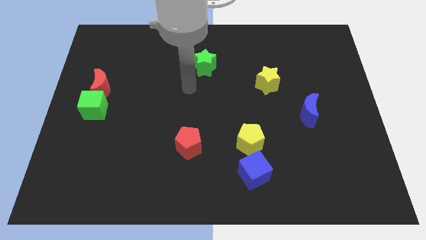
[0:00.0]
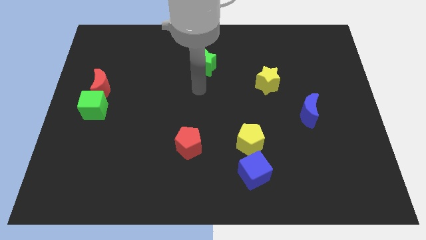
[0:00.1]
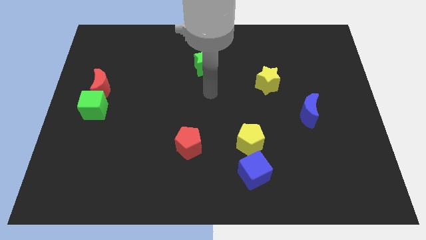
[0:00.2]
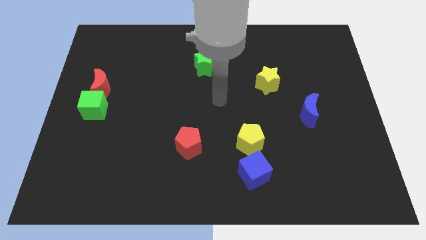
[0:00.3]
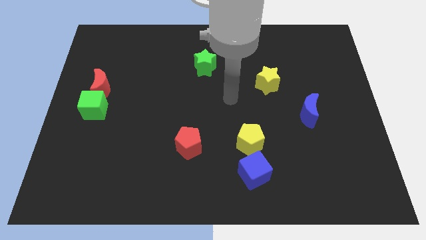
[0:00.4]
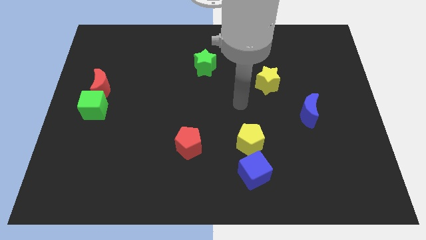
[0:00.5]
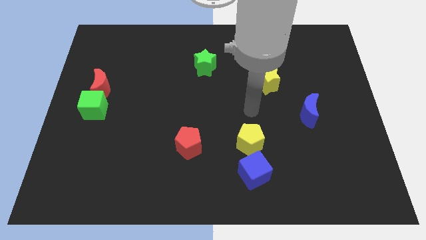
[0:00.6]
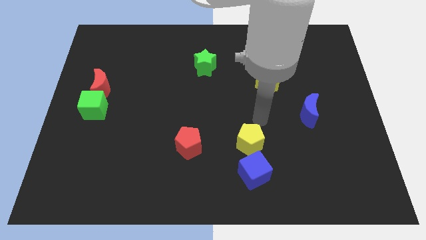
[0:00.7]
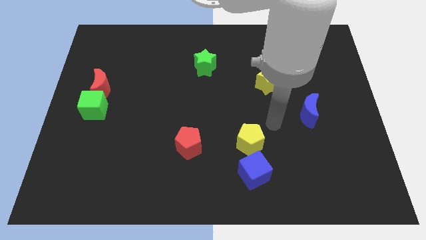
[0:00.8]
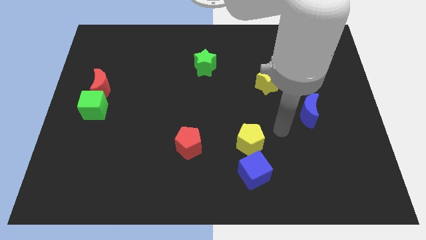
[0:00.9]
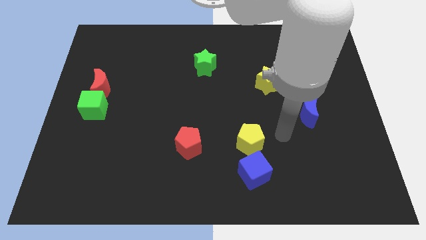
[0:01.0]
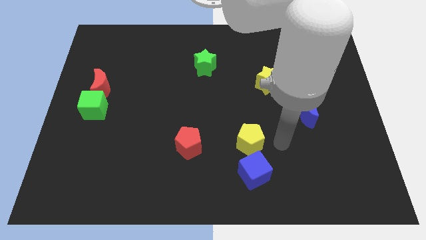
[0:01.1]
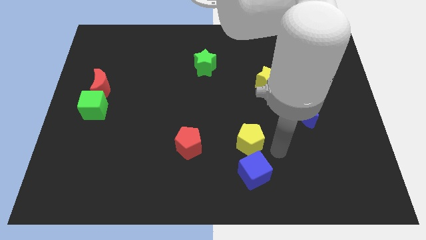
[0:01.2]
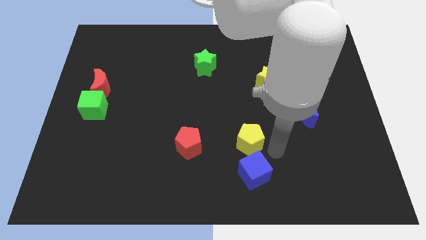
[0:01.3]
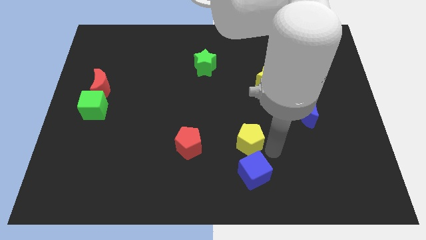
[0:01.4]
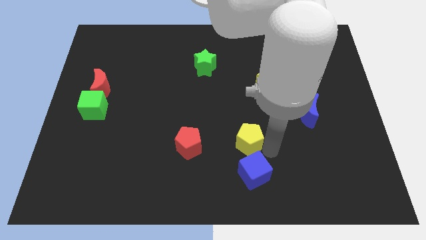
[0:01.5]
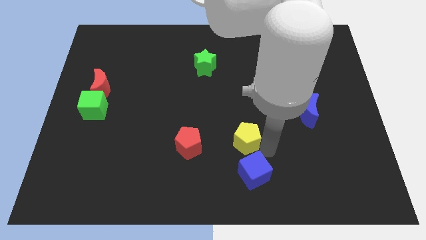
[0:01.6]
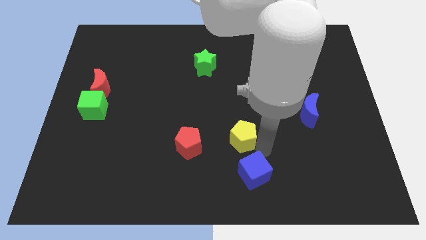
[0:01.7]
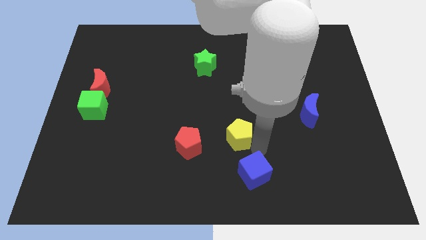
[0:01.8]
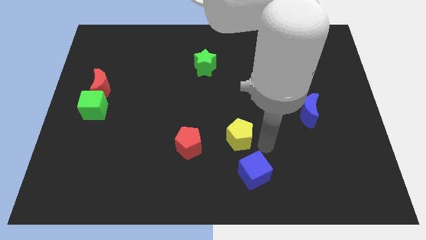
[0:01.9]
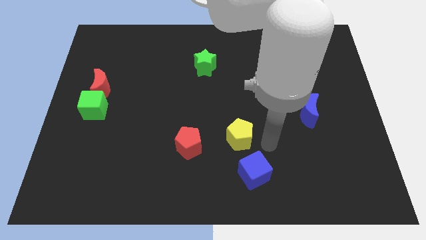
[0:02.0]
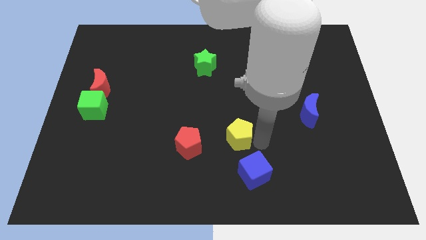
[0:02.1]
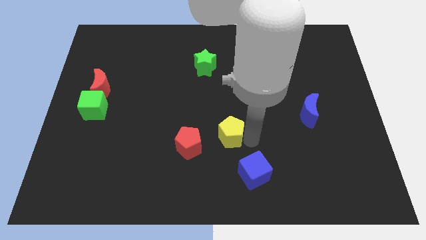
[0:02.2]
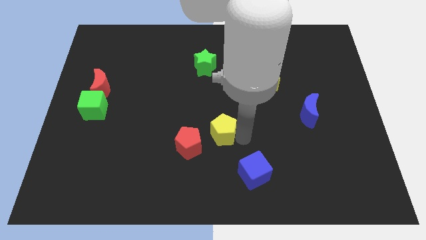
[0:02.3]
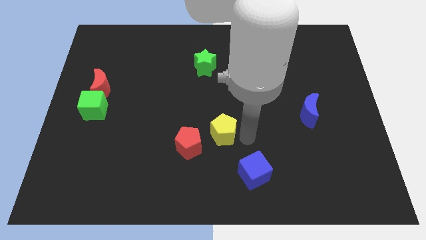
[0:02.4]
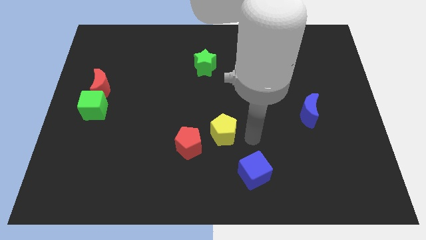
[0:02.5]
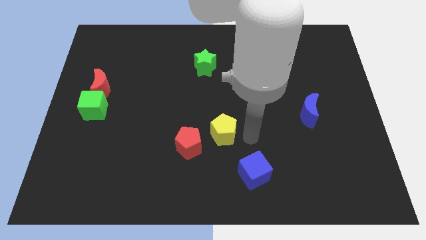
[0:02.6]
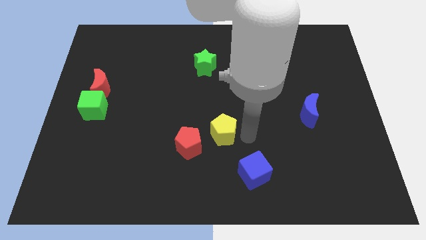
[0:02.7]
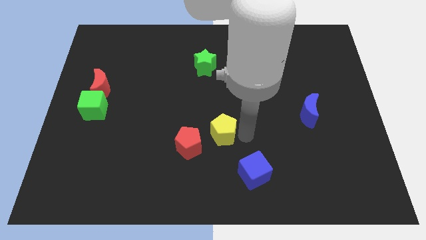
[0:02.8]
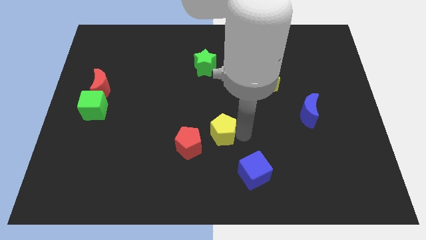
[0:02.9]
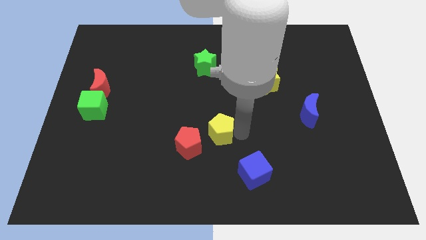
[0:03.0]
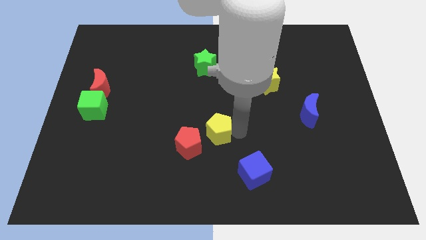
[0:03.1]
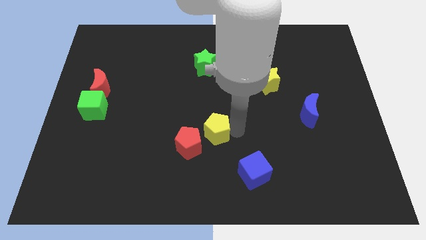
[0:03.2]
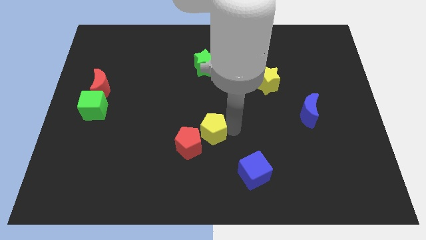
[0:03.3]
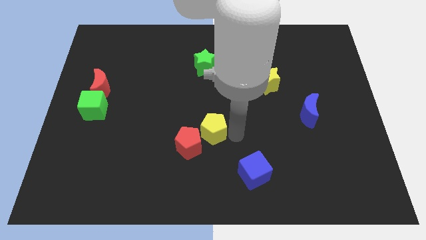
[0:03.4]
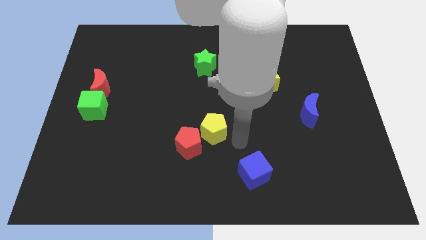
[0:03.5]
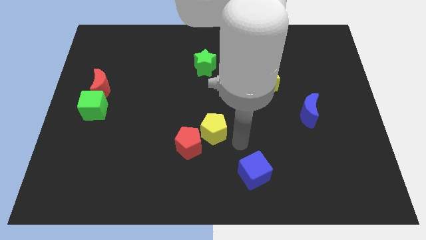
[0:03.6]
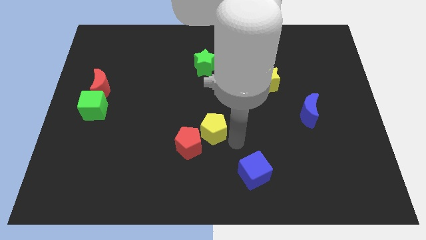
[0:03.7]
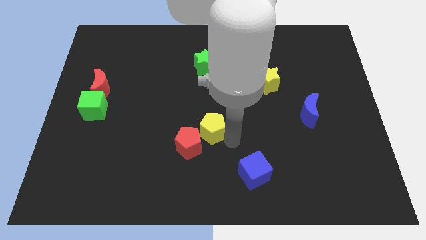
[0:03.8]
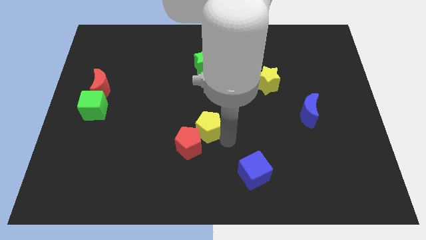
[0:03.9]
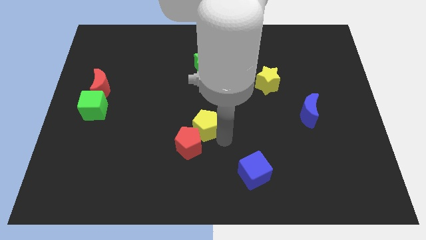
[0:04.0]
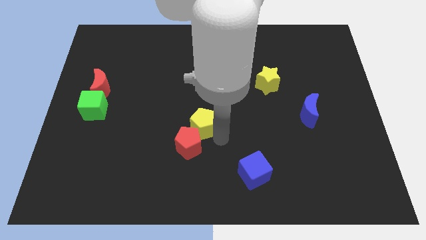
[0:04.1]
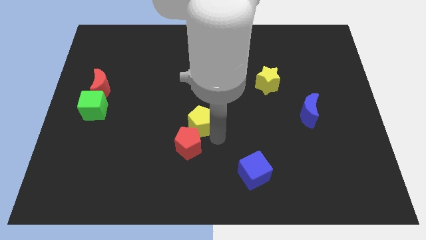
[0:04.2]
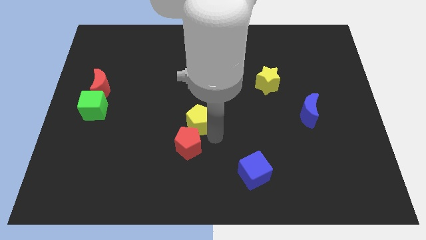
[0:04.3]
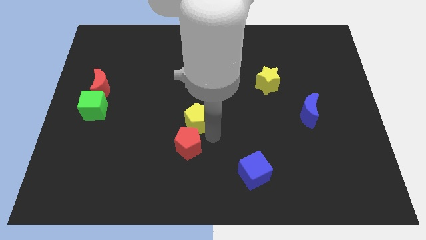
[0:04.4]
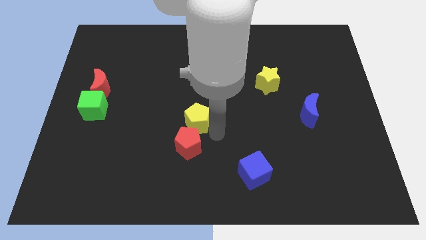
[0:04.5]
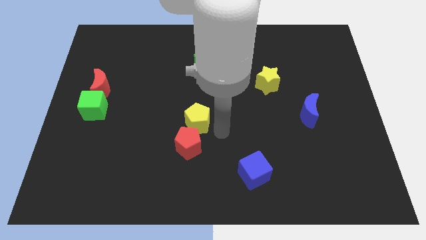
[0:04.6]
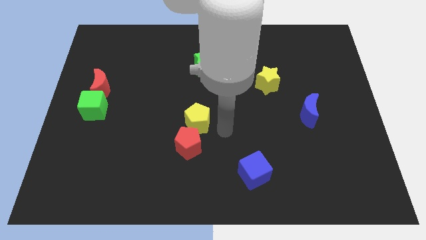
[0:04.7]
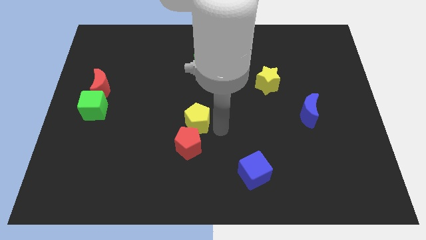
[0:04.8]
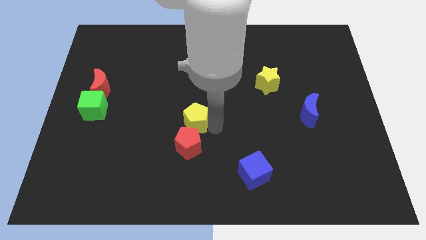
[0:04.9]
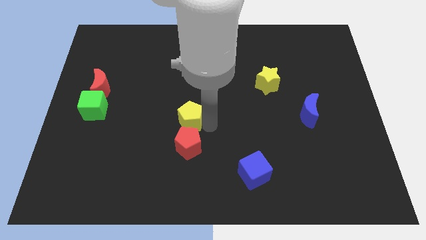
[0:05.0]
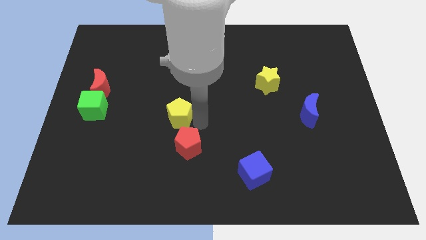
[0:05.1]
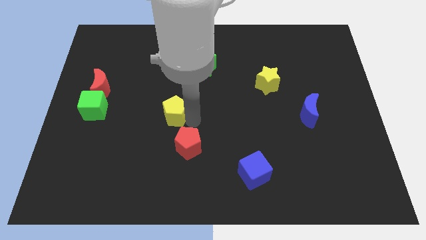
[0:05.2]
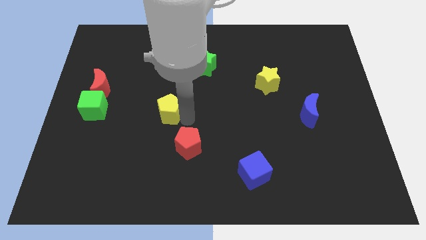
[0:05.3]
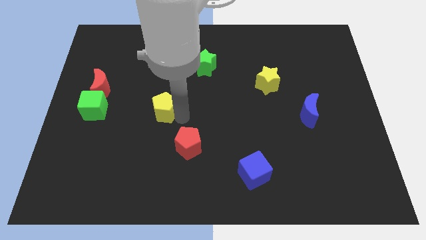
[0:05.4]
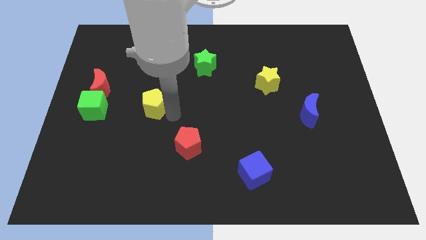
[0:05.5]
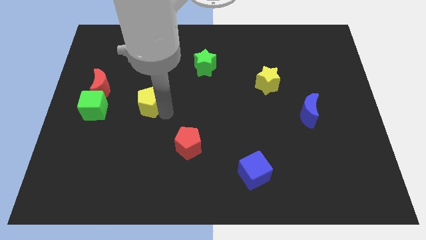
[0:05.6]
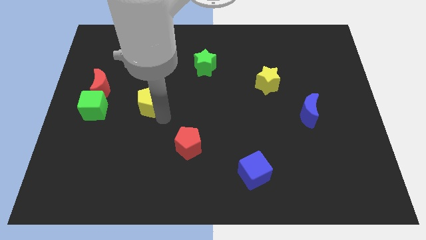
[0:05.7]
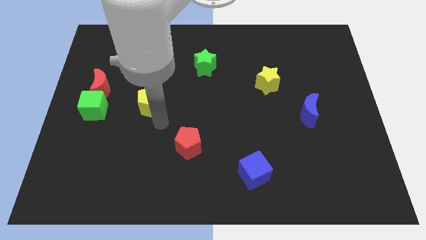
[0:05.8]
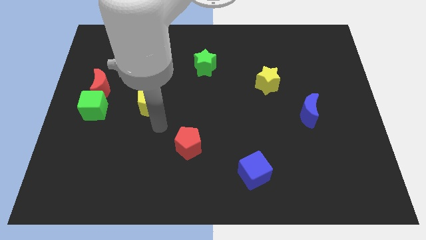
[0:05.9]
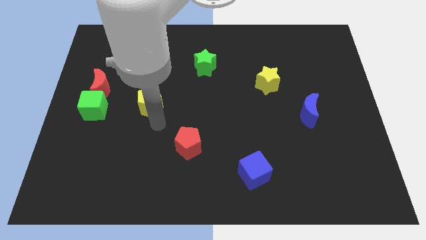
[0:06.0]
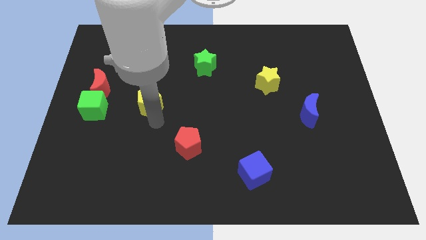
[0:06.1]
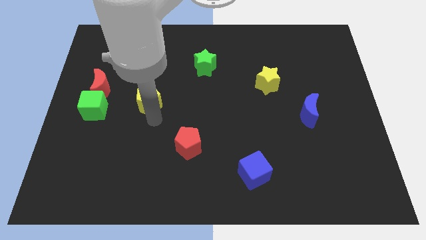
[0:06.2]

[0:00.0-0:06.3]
move the yellow pentagon to the right of the red moon

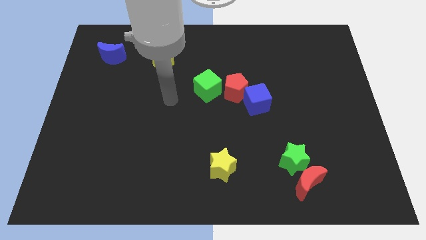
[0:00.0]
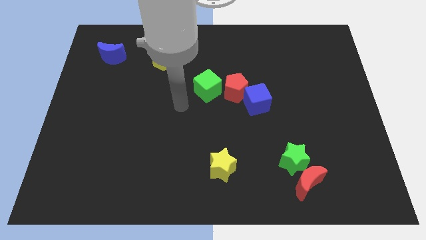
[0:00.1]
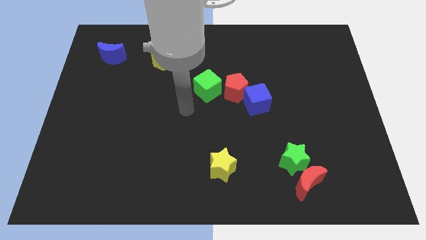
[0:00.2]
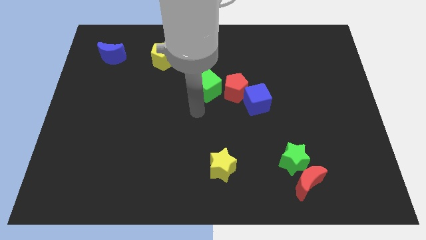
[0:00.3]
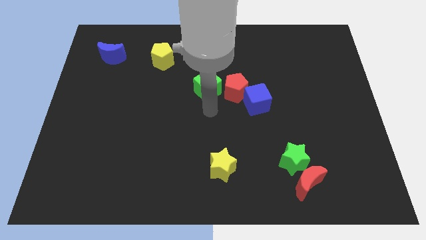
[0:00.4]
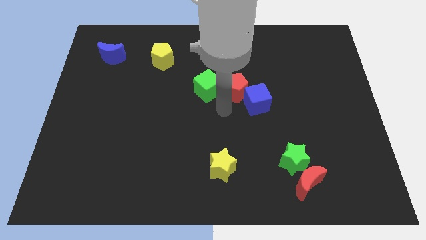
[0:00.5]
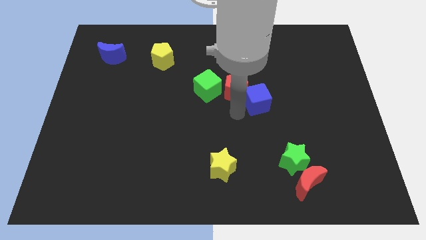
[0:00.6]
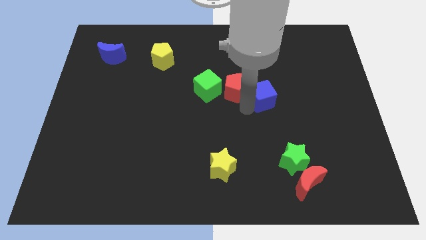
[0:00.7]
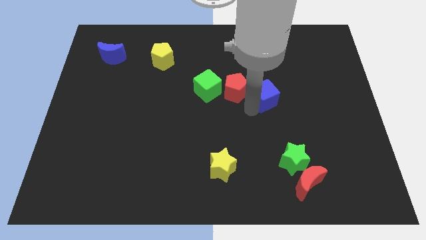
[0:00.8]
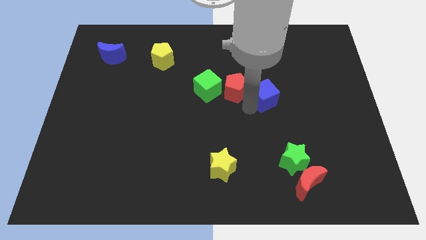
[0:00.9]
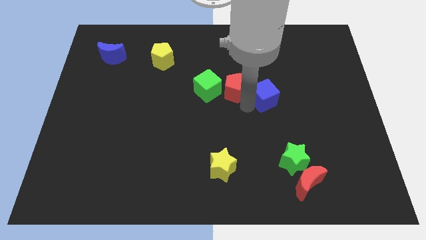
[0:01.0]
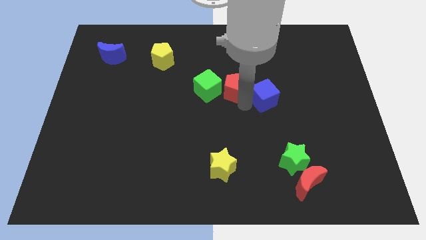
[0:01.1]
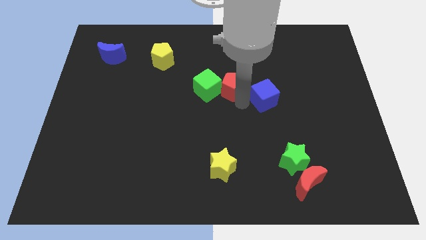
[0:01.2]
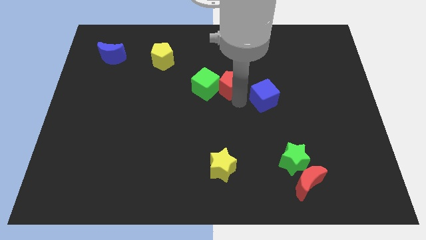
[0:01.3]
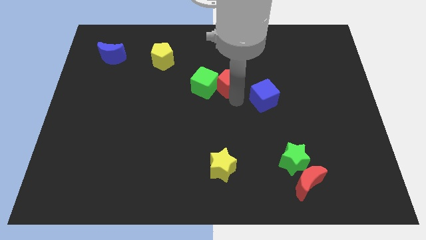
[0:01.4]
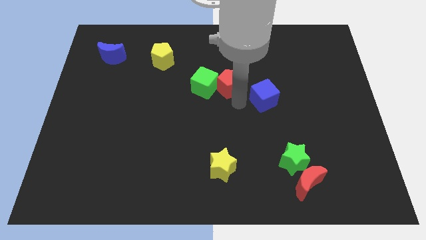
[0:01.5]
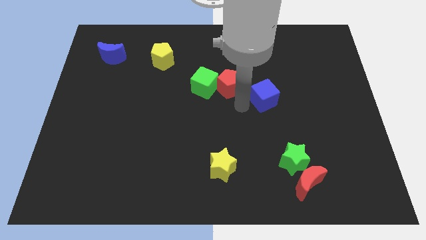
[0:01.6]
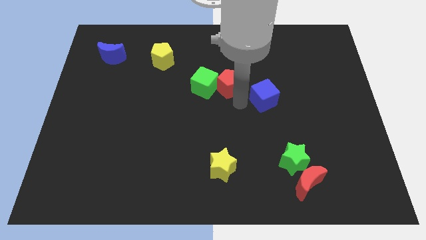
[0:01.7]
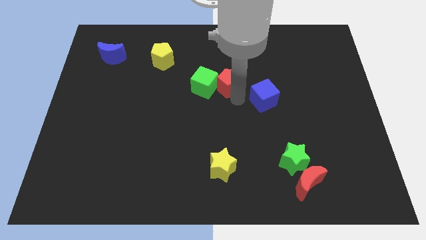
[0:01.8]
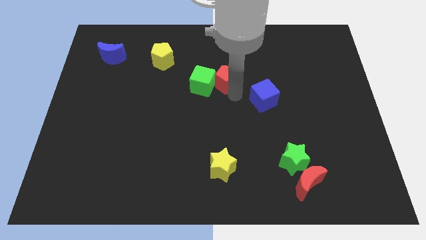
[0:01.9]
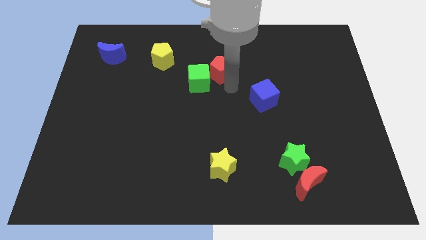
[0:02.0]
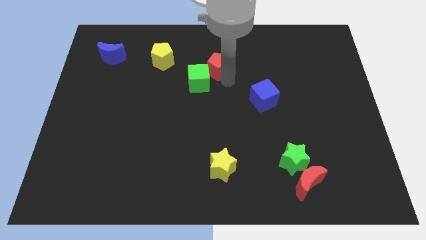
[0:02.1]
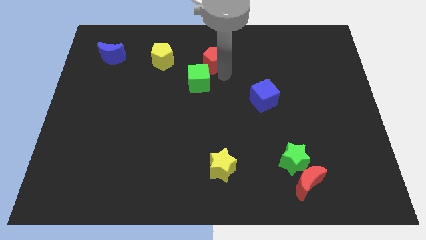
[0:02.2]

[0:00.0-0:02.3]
move the red pentagon above the green cube
